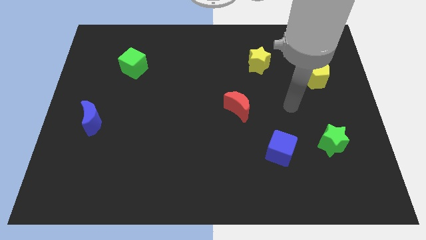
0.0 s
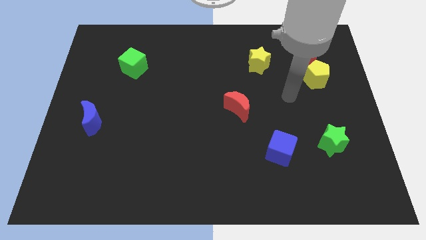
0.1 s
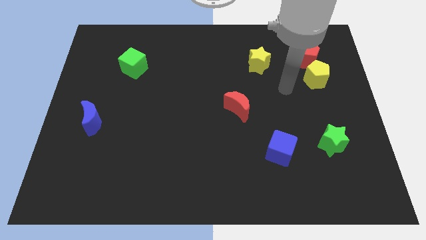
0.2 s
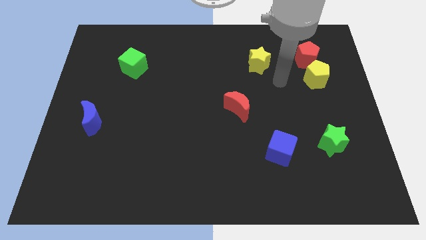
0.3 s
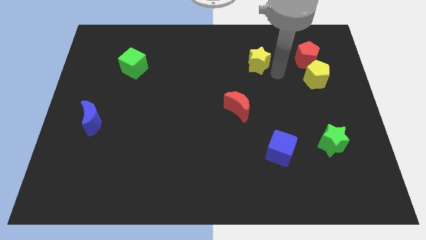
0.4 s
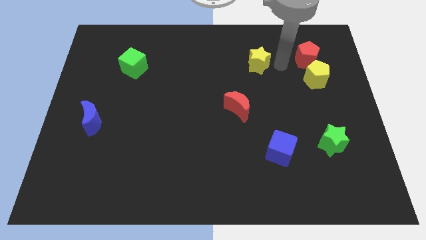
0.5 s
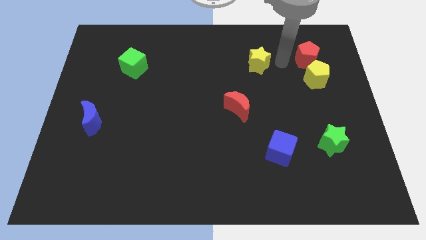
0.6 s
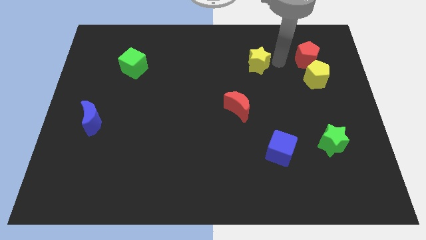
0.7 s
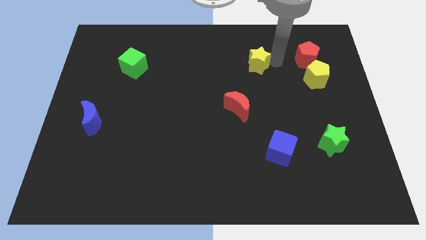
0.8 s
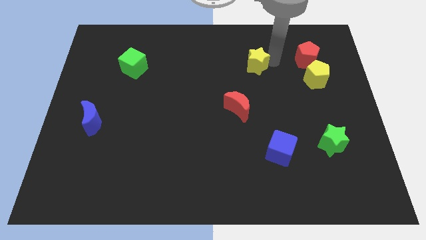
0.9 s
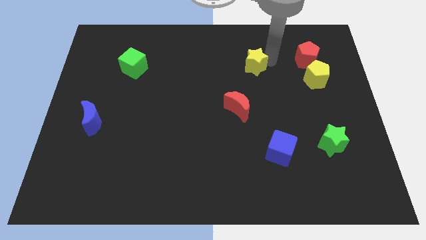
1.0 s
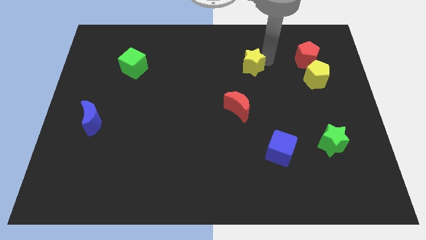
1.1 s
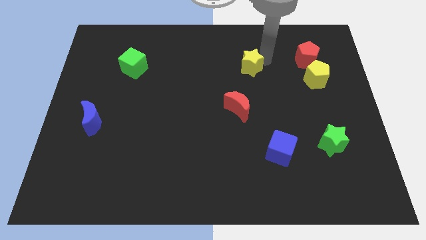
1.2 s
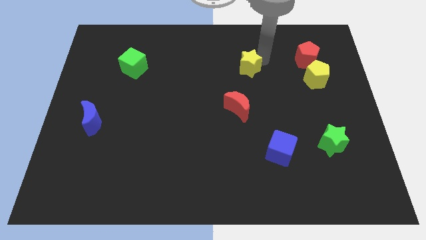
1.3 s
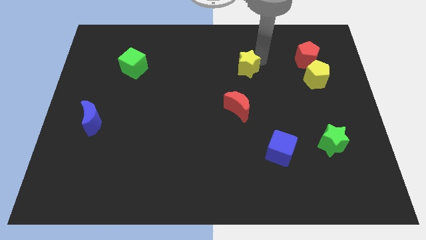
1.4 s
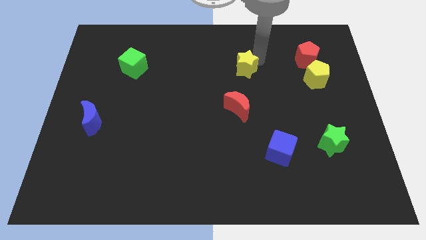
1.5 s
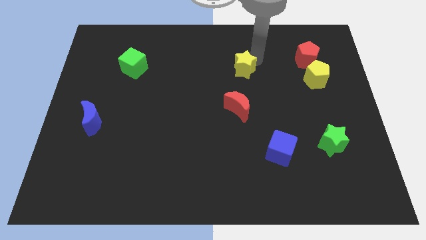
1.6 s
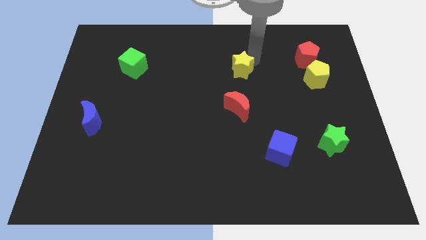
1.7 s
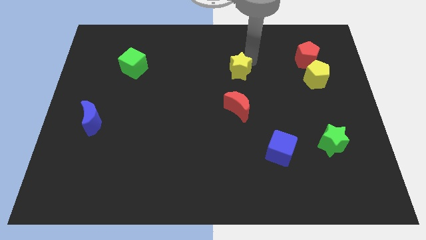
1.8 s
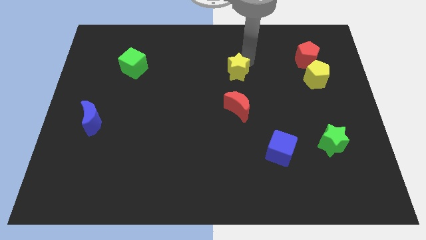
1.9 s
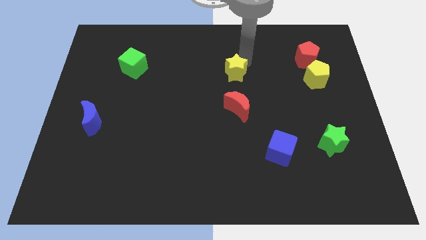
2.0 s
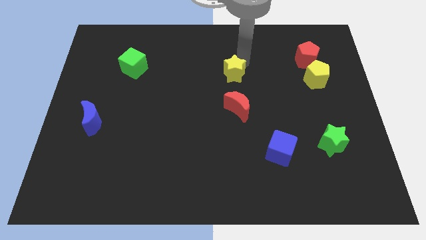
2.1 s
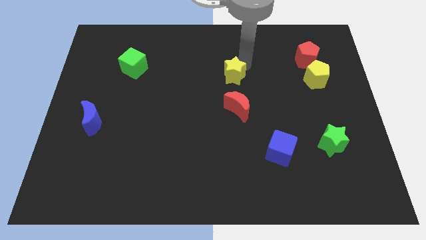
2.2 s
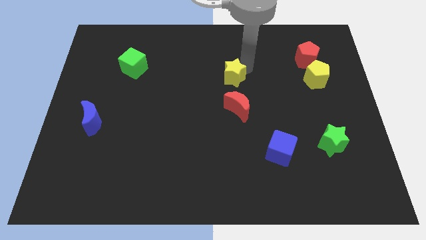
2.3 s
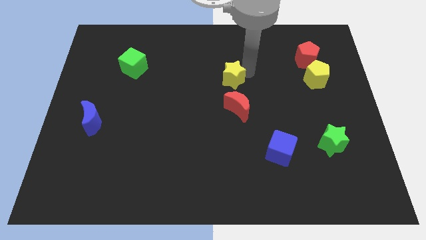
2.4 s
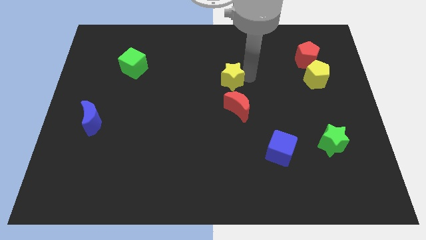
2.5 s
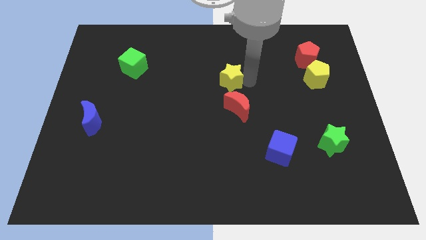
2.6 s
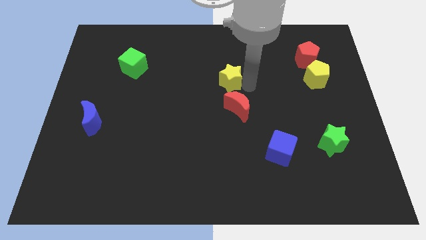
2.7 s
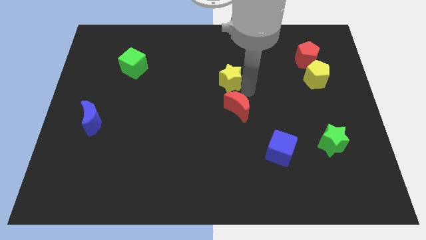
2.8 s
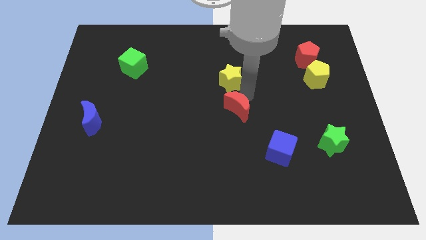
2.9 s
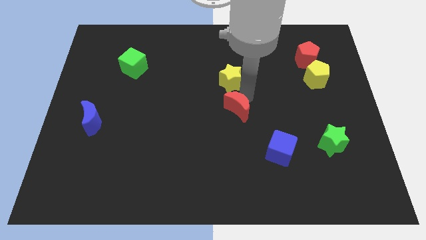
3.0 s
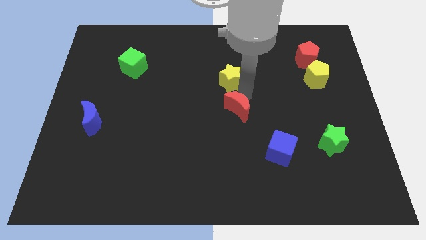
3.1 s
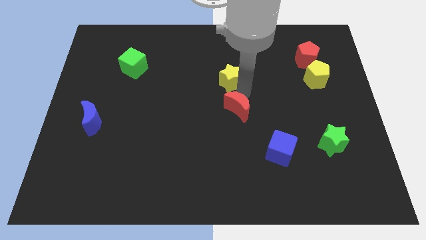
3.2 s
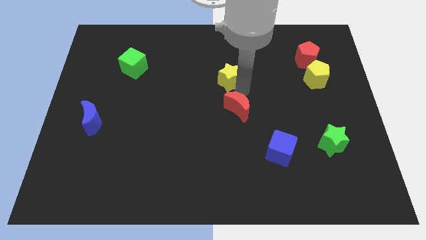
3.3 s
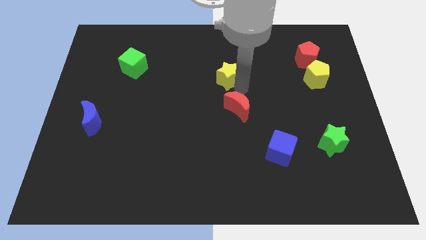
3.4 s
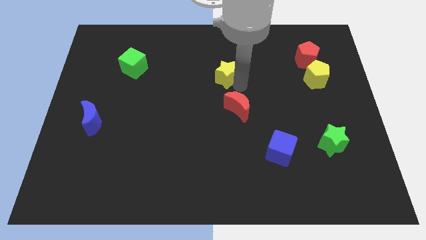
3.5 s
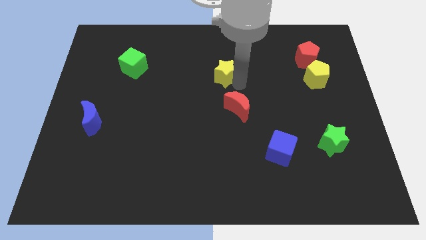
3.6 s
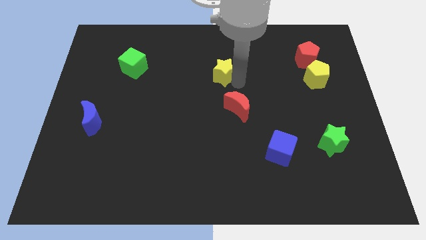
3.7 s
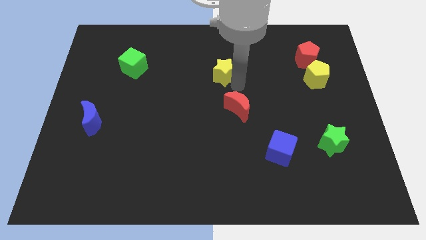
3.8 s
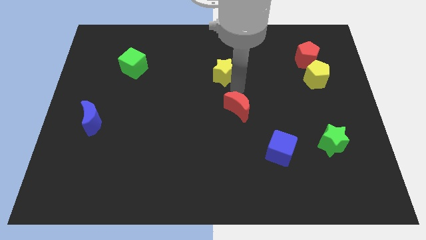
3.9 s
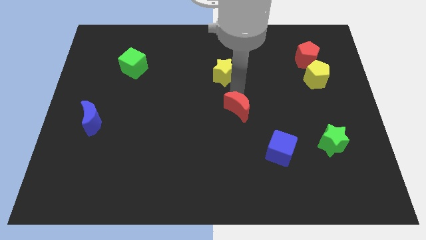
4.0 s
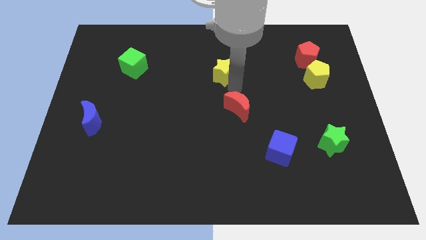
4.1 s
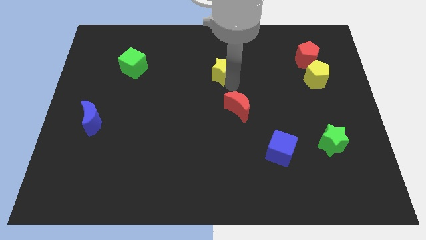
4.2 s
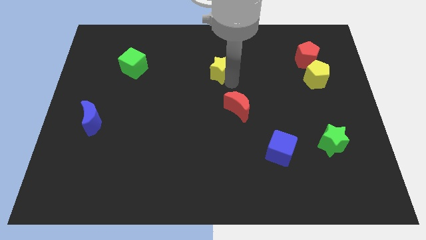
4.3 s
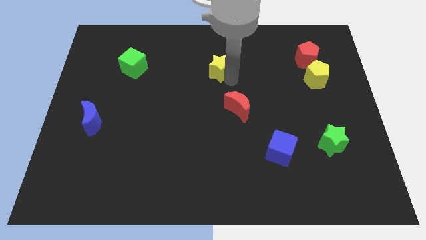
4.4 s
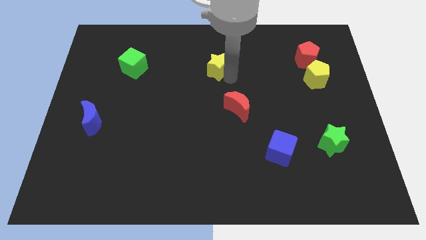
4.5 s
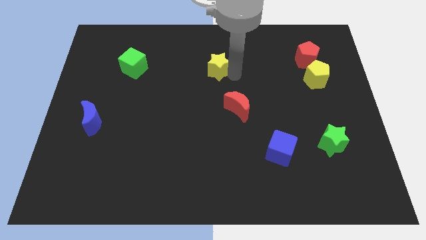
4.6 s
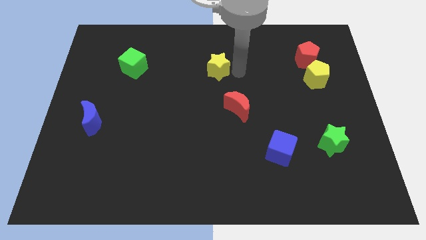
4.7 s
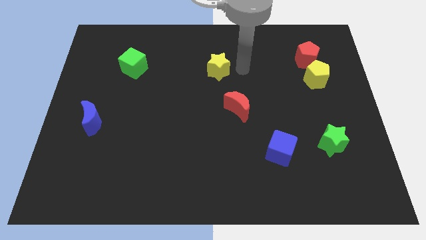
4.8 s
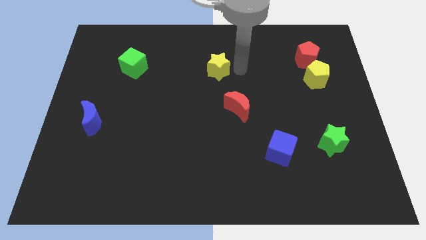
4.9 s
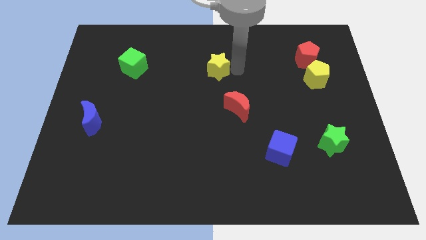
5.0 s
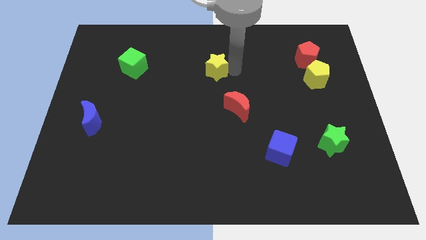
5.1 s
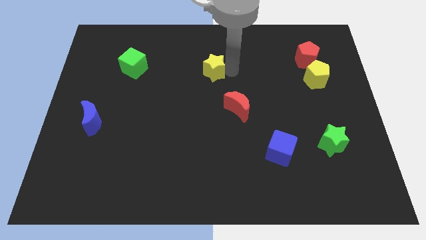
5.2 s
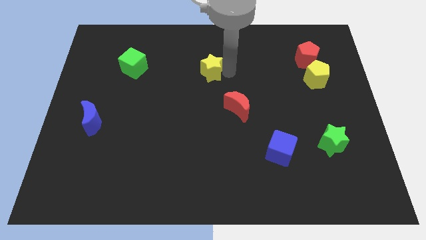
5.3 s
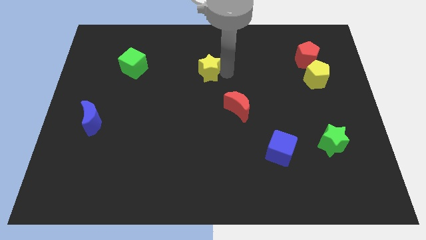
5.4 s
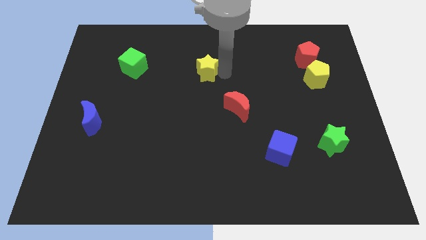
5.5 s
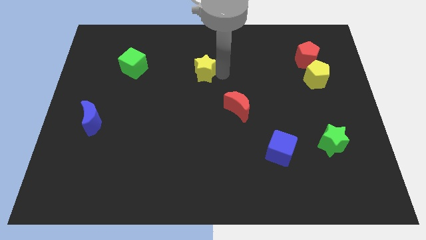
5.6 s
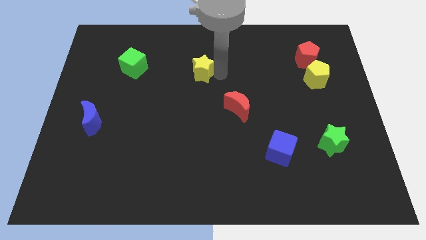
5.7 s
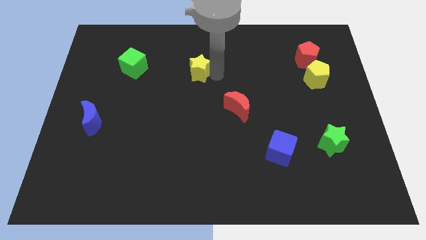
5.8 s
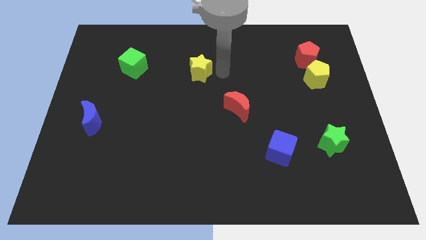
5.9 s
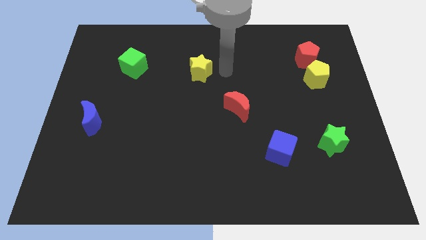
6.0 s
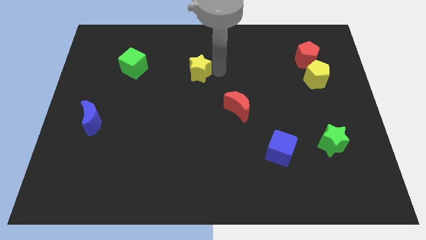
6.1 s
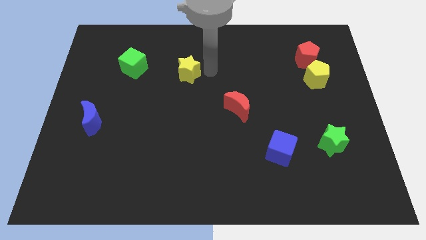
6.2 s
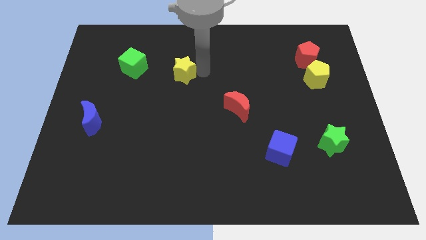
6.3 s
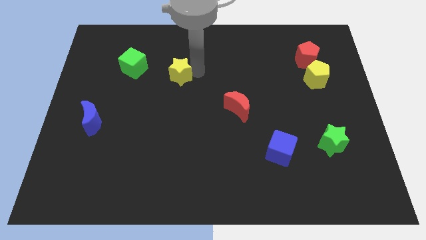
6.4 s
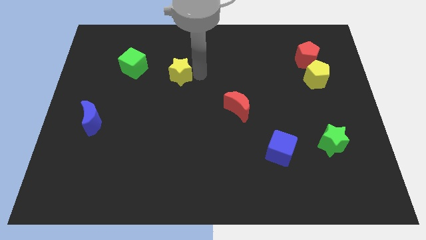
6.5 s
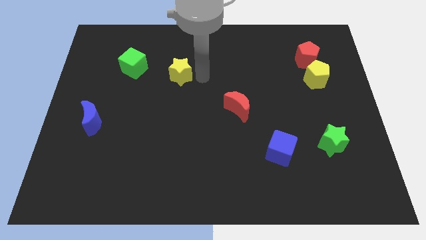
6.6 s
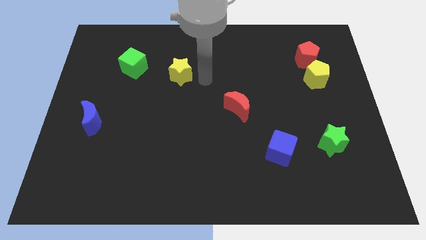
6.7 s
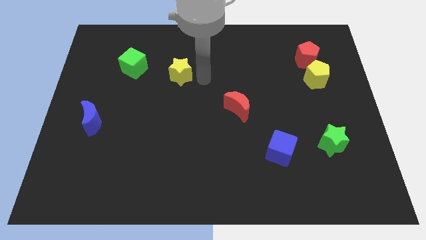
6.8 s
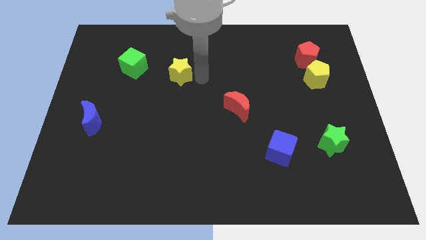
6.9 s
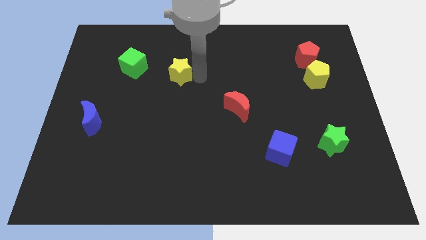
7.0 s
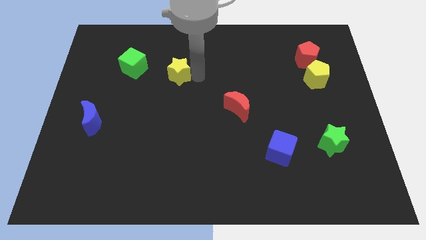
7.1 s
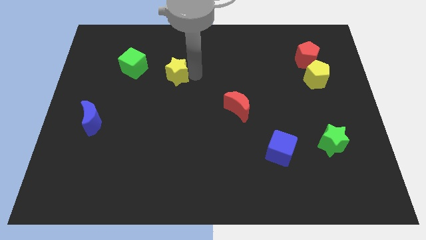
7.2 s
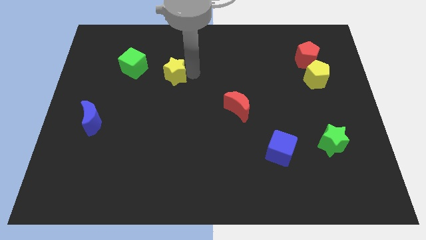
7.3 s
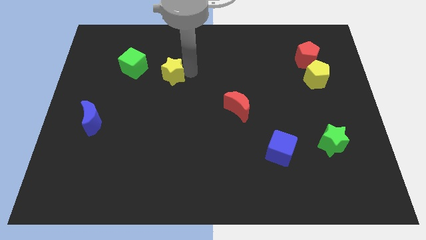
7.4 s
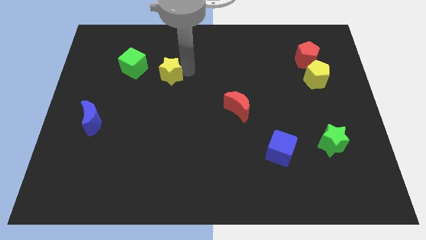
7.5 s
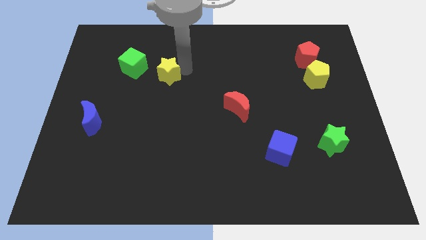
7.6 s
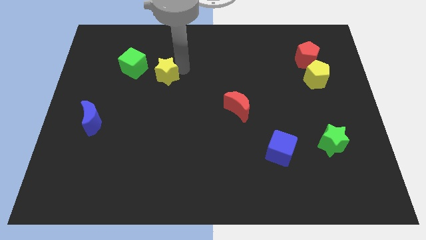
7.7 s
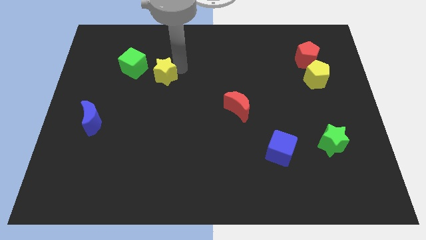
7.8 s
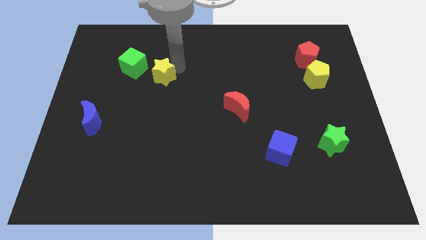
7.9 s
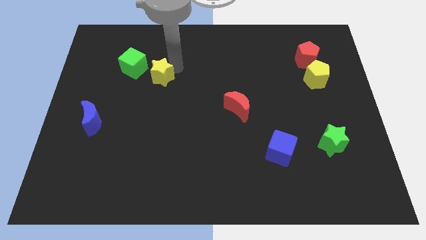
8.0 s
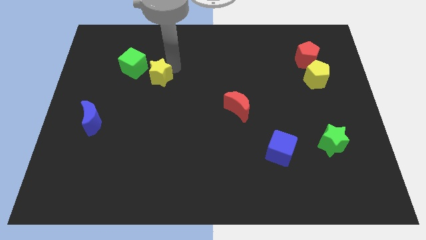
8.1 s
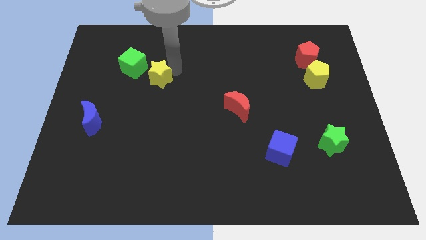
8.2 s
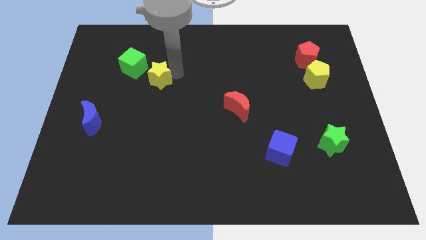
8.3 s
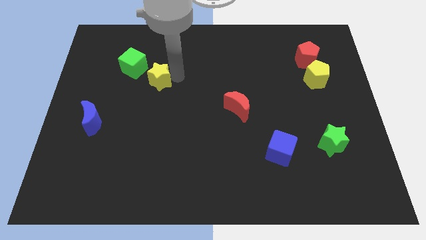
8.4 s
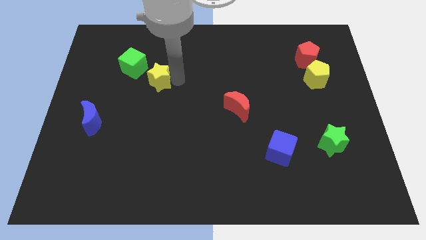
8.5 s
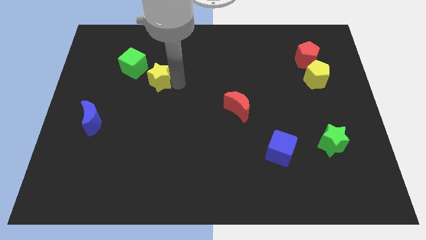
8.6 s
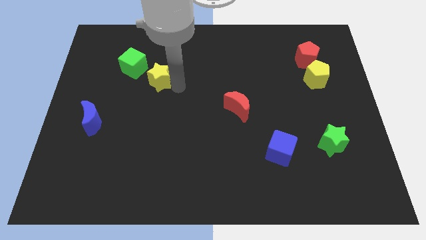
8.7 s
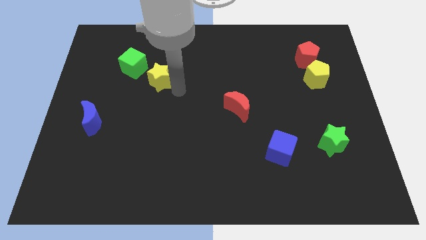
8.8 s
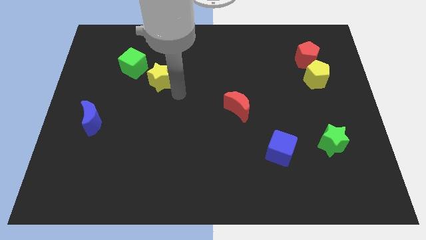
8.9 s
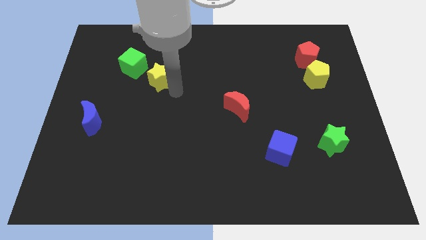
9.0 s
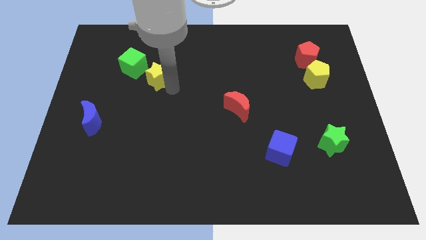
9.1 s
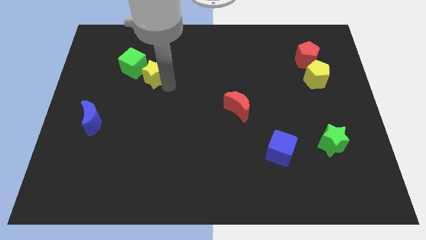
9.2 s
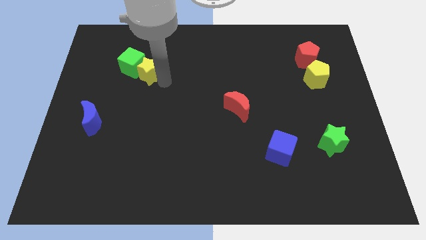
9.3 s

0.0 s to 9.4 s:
push the yellow star close to the green cube
